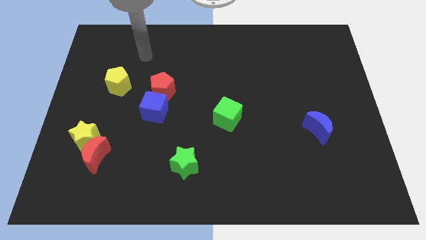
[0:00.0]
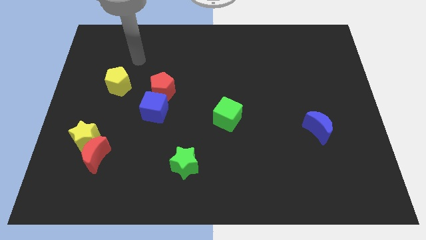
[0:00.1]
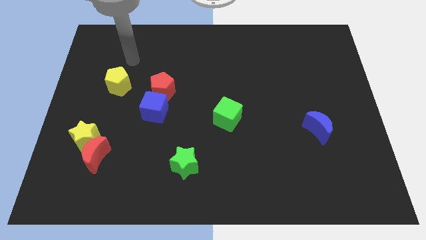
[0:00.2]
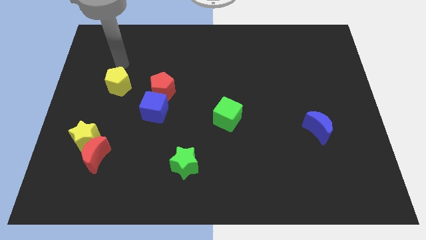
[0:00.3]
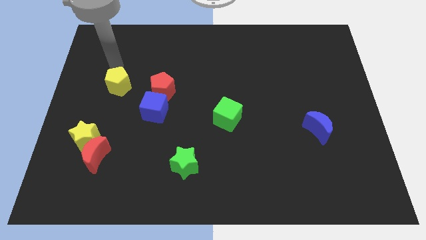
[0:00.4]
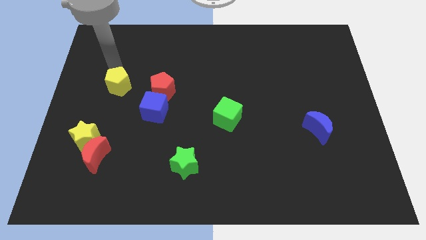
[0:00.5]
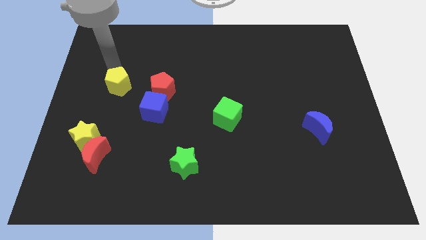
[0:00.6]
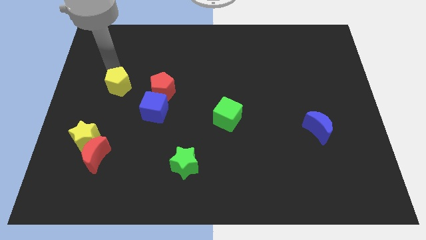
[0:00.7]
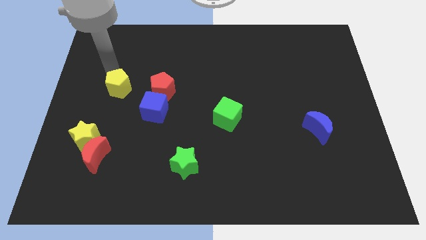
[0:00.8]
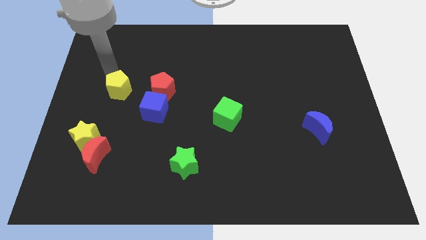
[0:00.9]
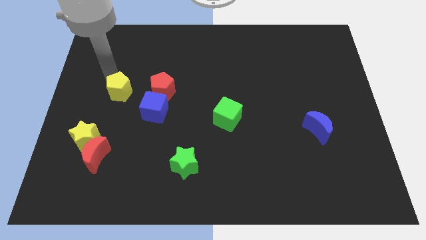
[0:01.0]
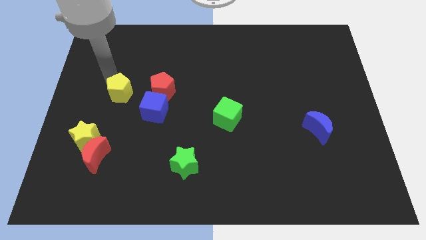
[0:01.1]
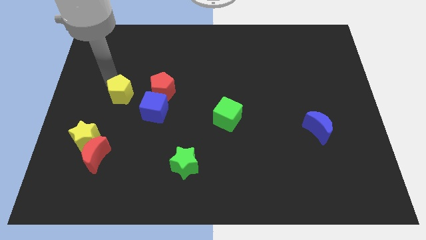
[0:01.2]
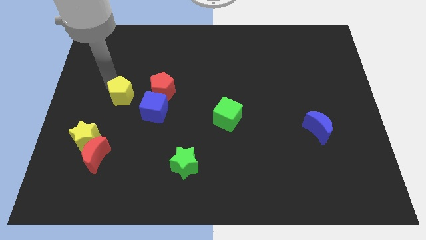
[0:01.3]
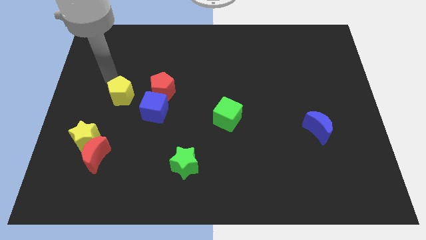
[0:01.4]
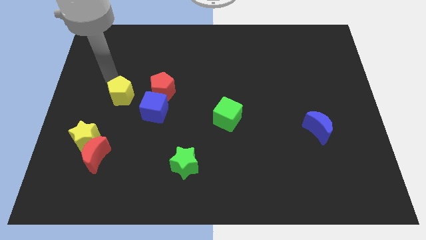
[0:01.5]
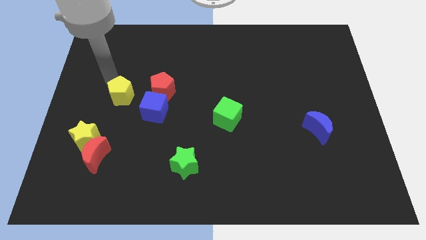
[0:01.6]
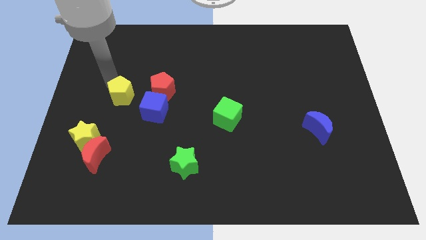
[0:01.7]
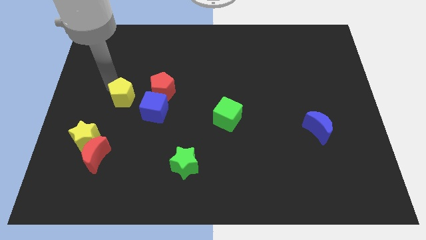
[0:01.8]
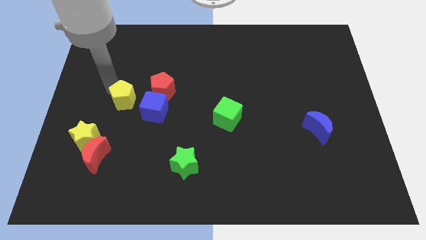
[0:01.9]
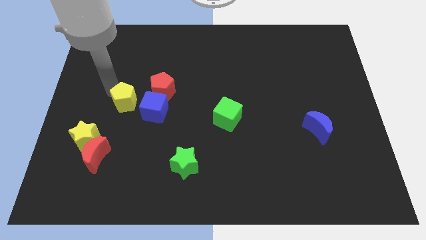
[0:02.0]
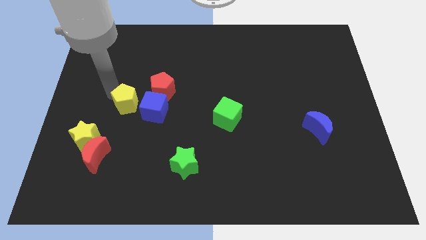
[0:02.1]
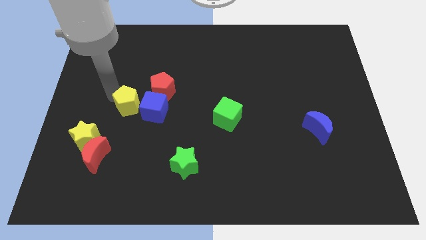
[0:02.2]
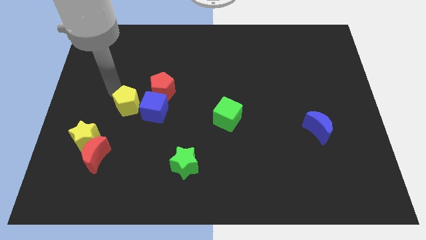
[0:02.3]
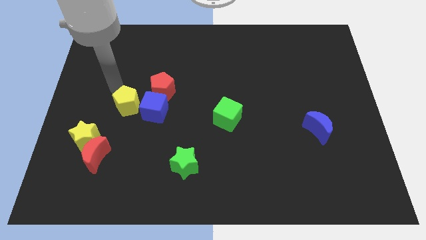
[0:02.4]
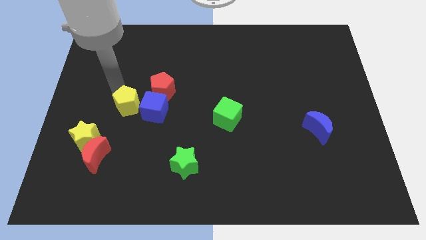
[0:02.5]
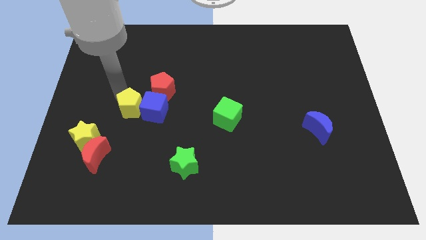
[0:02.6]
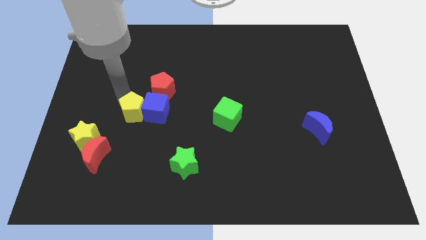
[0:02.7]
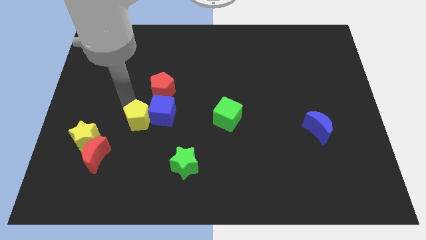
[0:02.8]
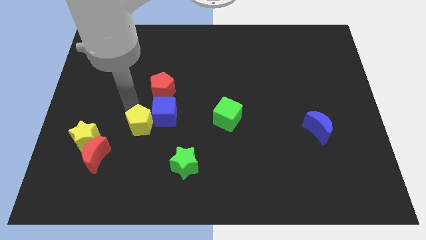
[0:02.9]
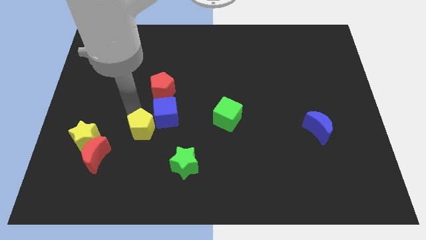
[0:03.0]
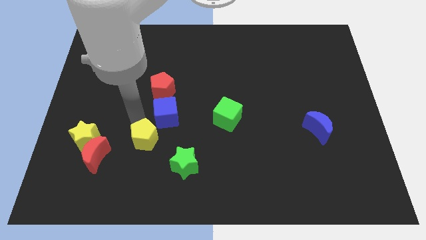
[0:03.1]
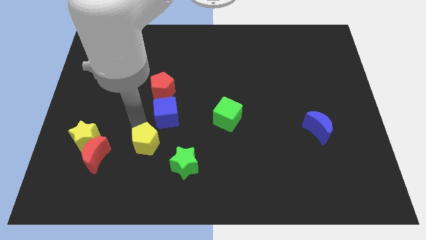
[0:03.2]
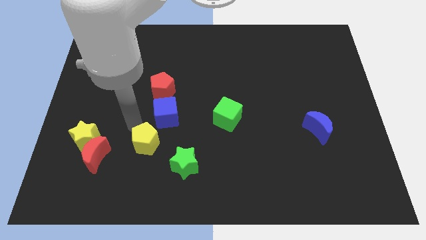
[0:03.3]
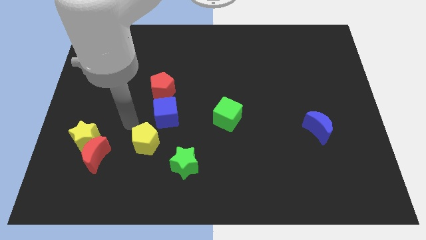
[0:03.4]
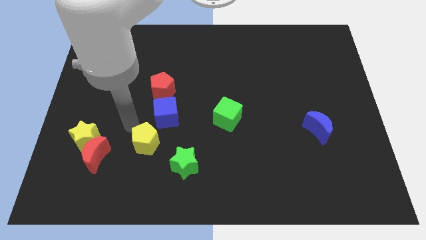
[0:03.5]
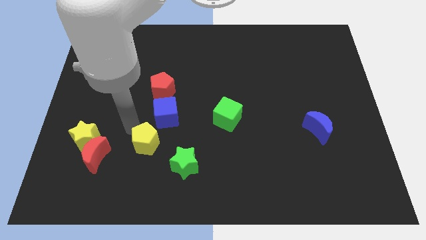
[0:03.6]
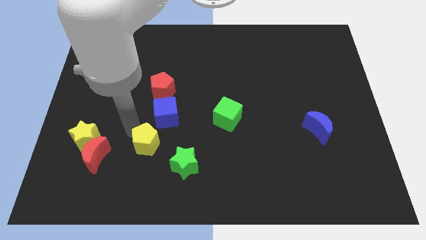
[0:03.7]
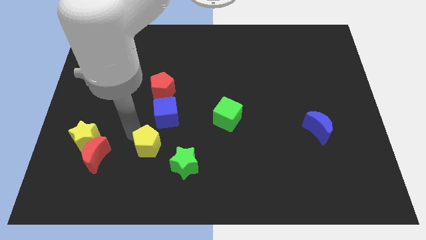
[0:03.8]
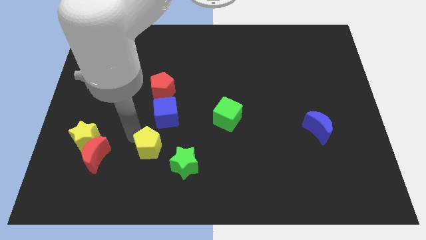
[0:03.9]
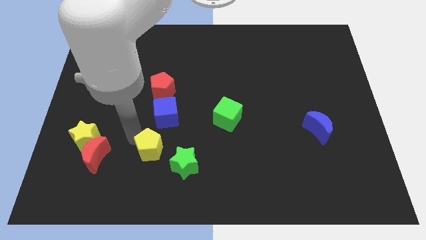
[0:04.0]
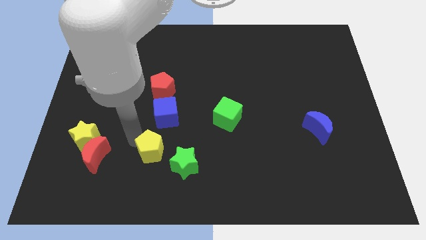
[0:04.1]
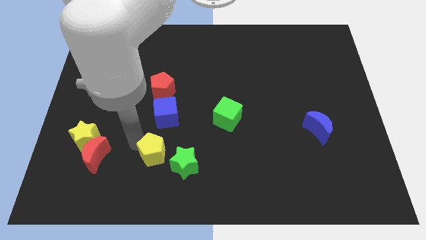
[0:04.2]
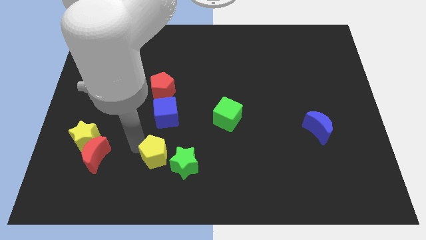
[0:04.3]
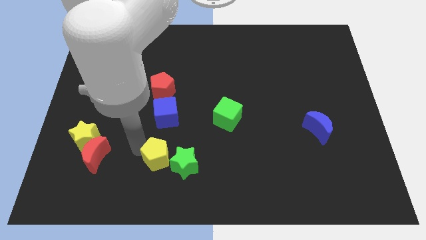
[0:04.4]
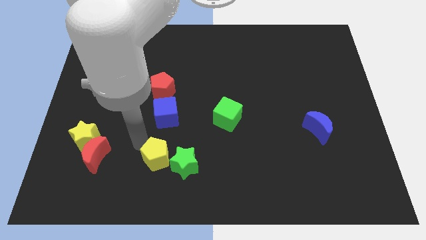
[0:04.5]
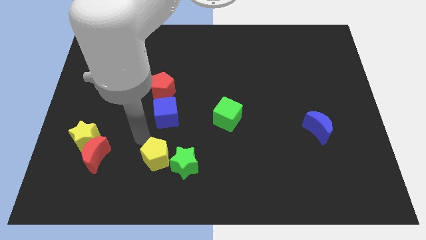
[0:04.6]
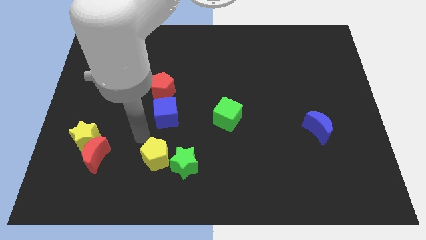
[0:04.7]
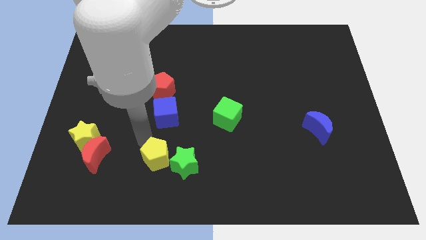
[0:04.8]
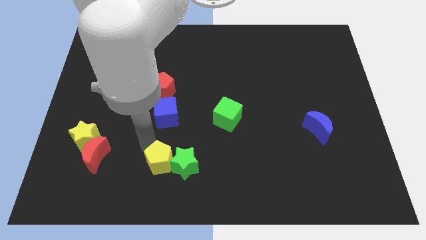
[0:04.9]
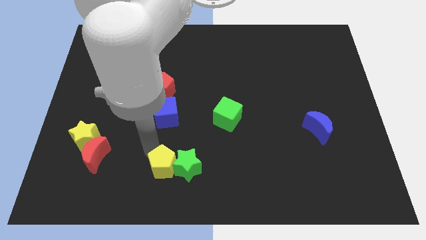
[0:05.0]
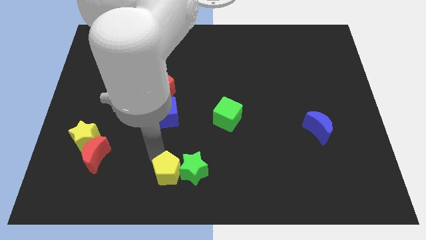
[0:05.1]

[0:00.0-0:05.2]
put the yellow pentagon to the bottom side

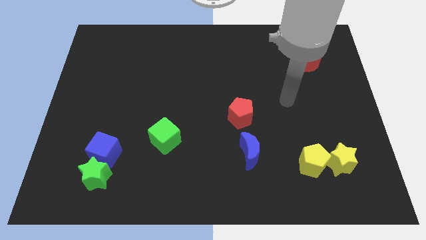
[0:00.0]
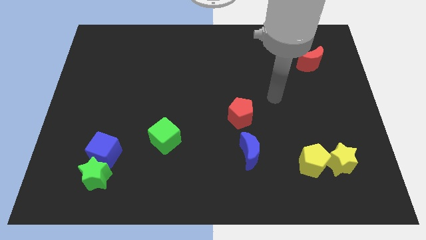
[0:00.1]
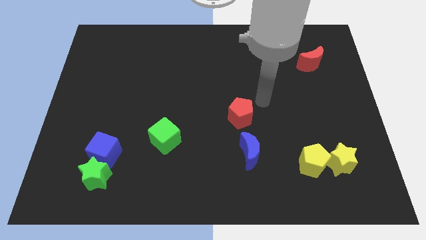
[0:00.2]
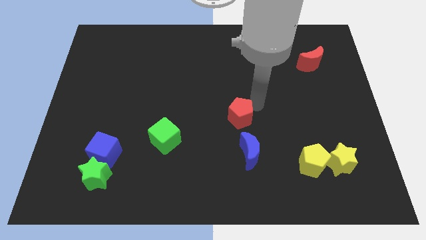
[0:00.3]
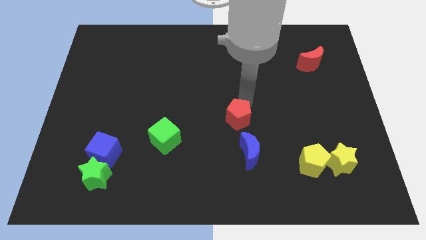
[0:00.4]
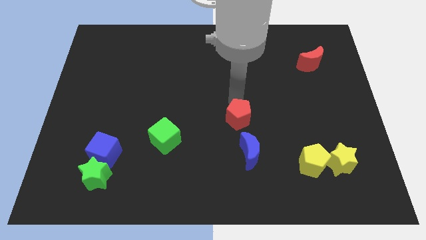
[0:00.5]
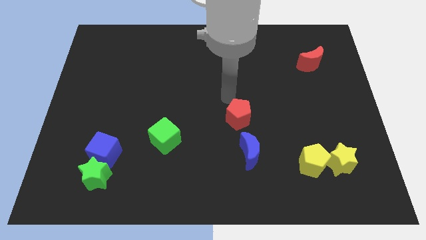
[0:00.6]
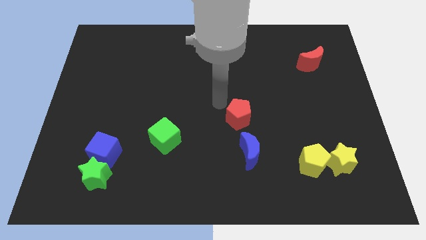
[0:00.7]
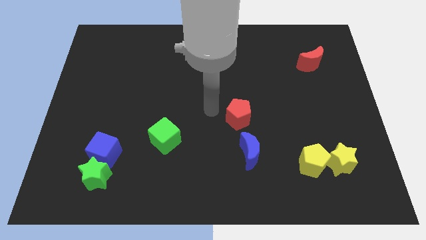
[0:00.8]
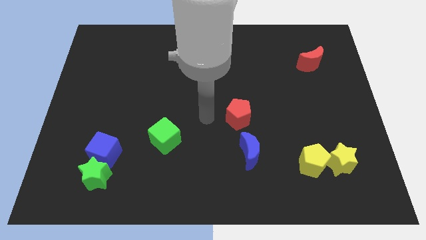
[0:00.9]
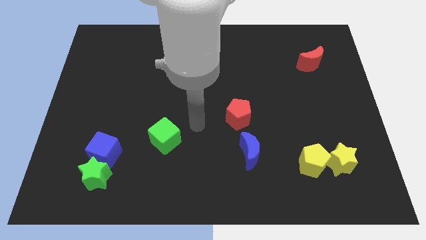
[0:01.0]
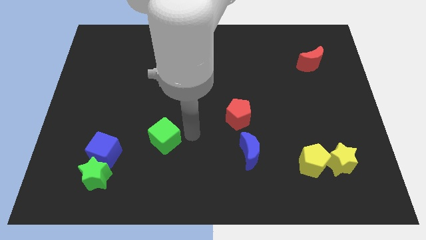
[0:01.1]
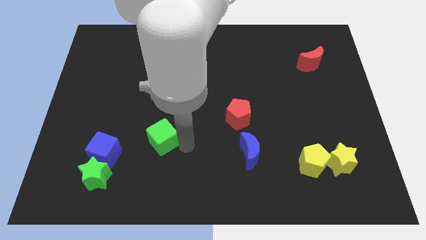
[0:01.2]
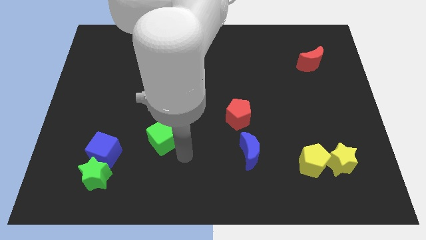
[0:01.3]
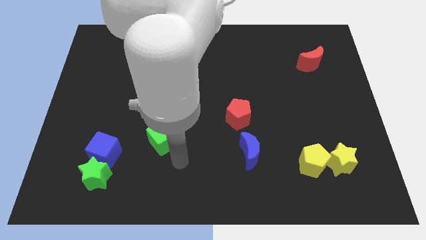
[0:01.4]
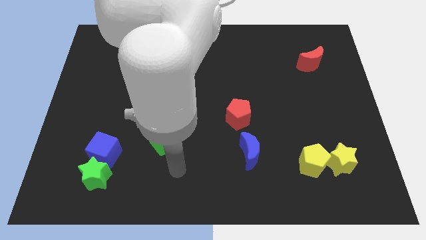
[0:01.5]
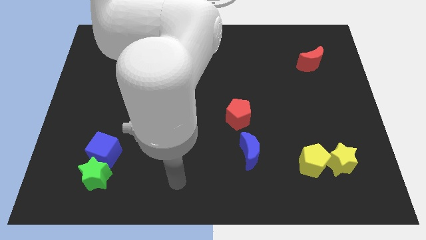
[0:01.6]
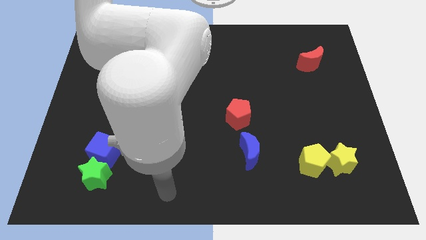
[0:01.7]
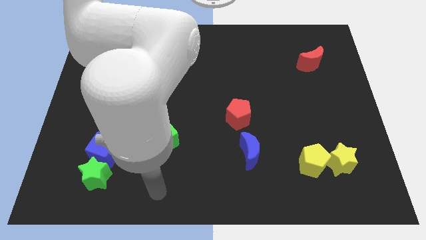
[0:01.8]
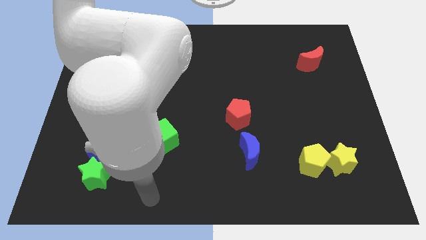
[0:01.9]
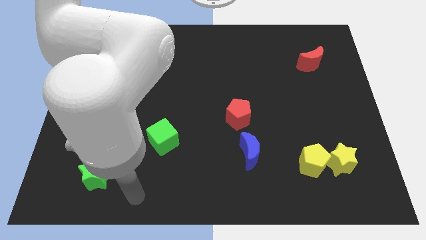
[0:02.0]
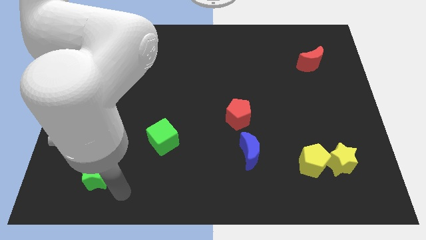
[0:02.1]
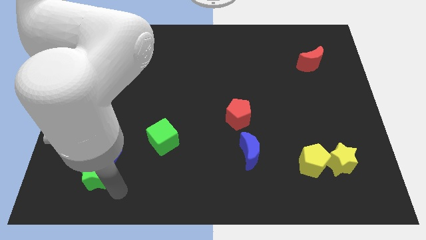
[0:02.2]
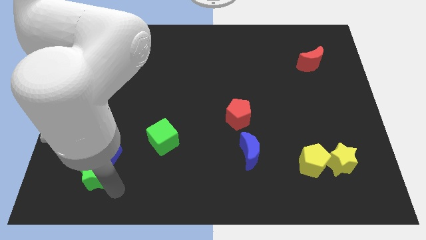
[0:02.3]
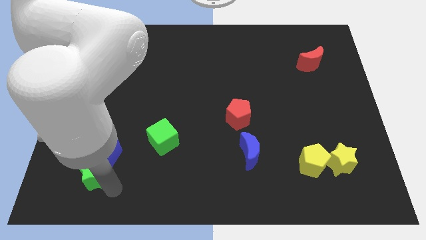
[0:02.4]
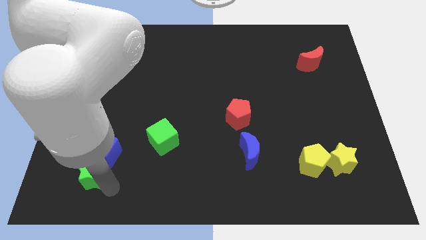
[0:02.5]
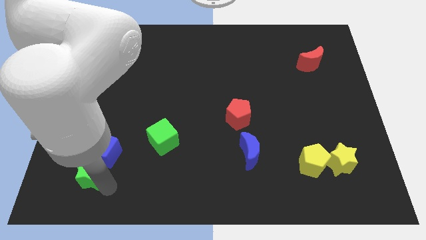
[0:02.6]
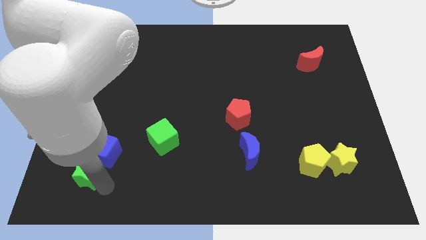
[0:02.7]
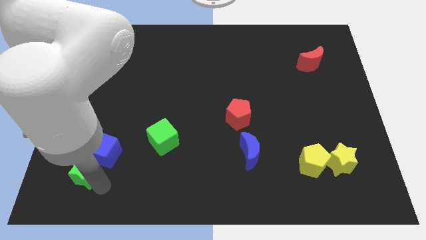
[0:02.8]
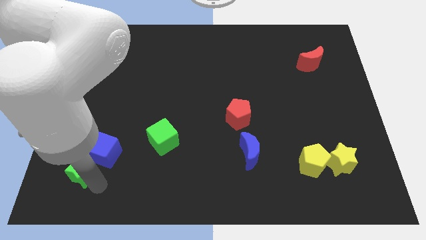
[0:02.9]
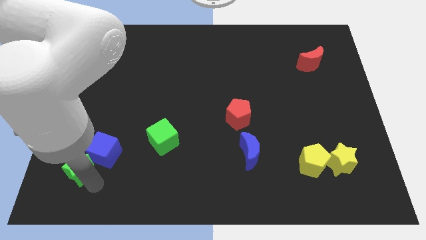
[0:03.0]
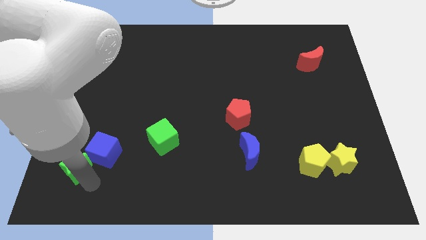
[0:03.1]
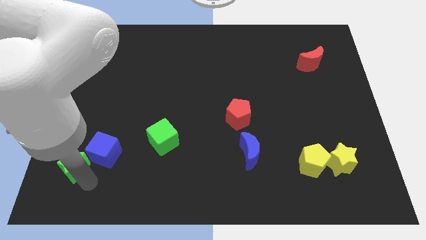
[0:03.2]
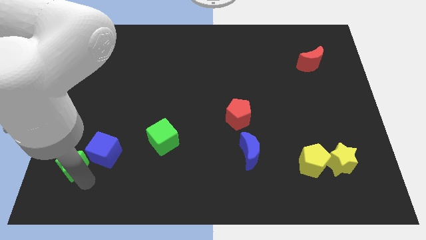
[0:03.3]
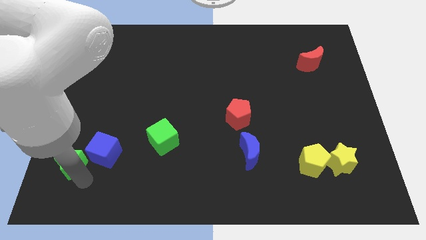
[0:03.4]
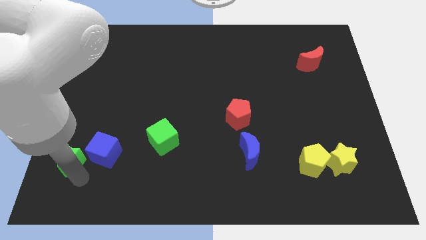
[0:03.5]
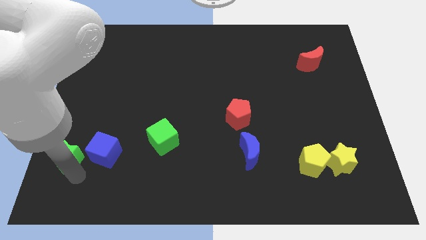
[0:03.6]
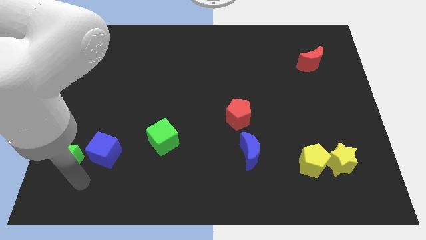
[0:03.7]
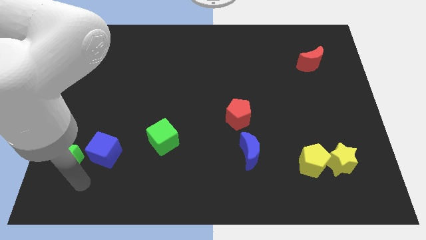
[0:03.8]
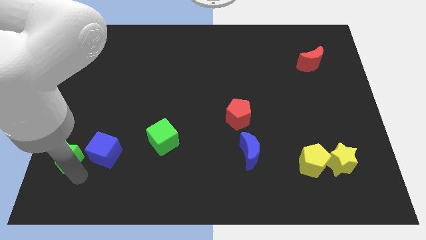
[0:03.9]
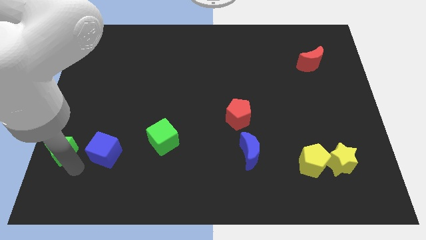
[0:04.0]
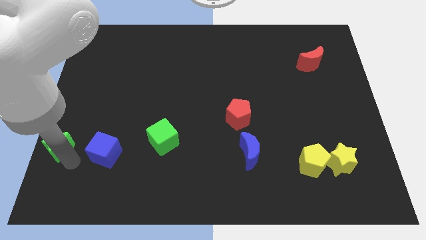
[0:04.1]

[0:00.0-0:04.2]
slide the green star to the left side
